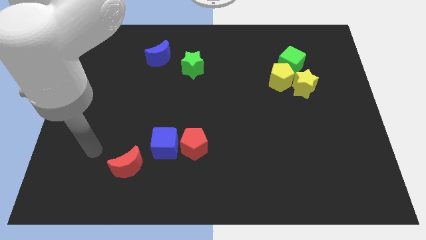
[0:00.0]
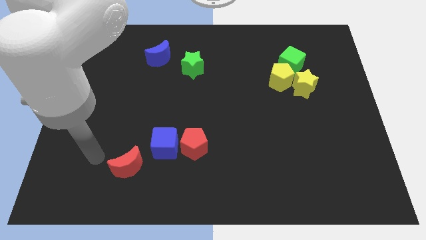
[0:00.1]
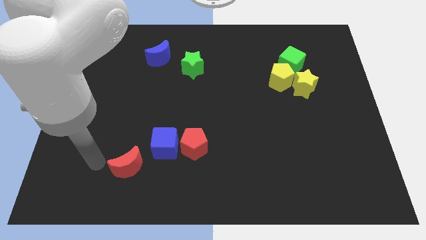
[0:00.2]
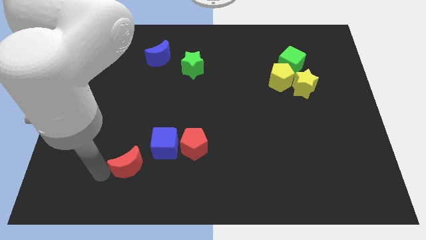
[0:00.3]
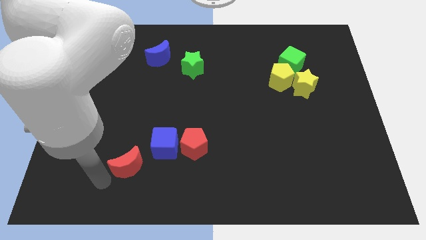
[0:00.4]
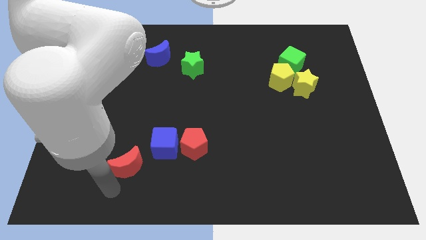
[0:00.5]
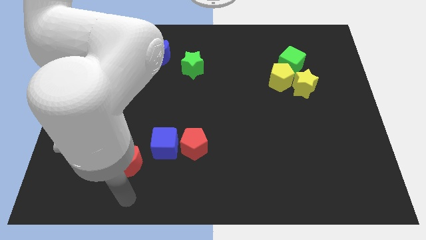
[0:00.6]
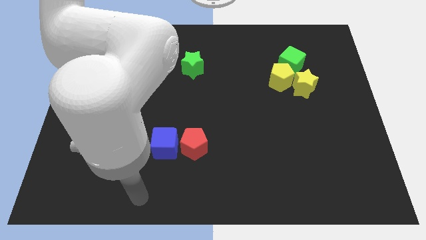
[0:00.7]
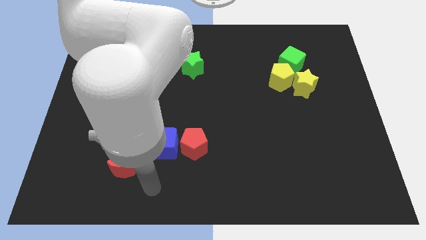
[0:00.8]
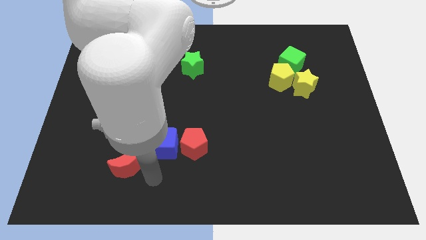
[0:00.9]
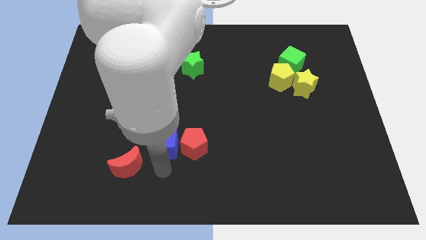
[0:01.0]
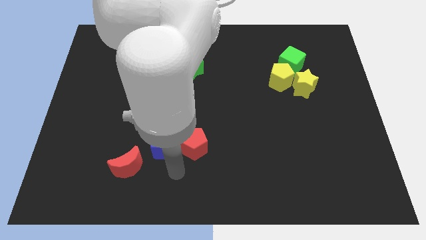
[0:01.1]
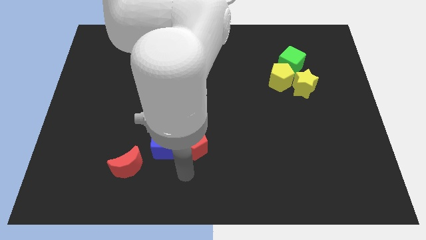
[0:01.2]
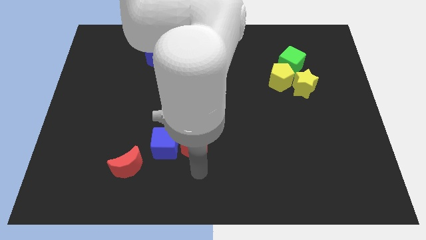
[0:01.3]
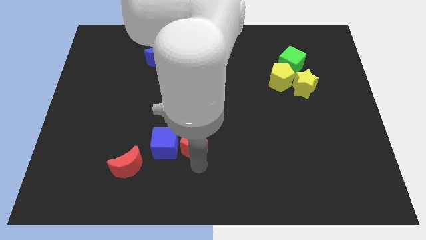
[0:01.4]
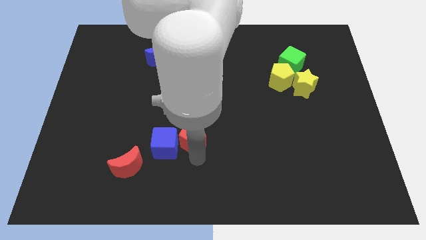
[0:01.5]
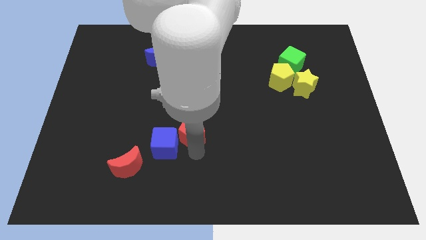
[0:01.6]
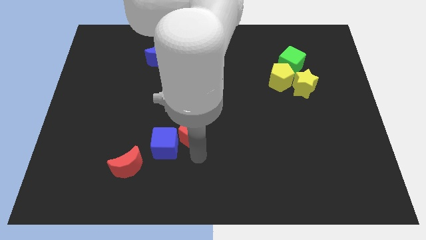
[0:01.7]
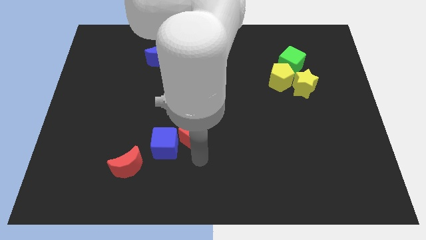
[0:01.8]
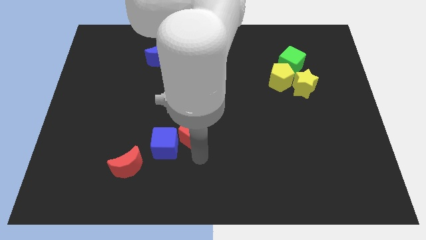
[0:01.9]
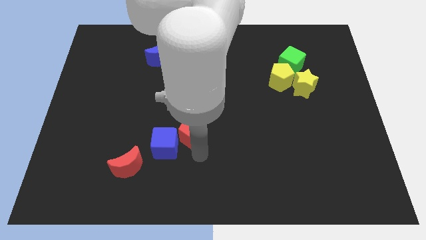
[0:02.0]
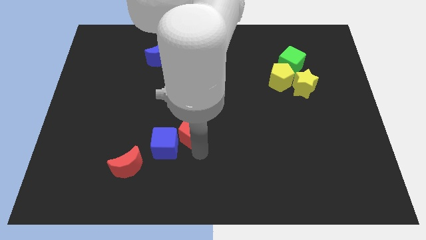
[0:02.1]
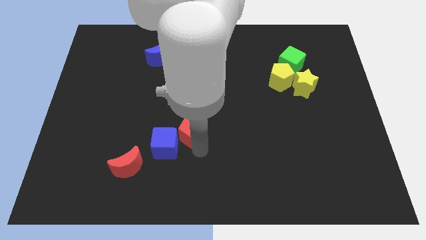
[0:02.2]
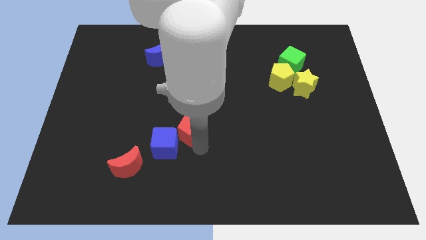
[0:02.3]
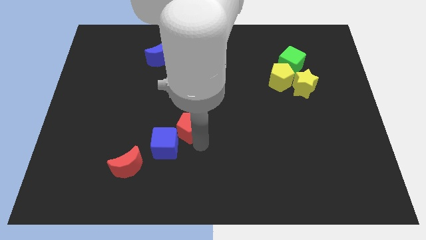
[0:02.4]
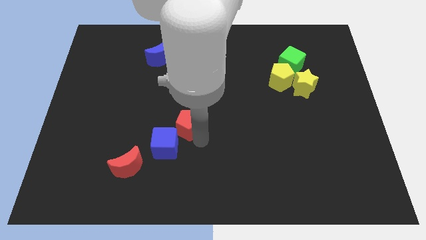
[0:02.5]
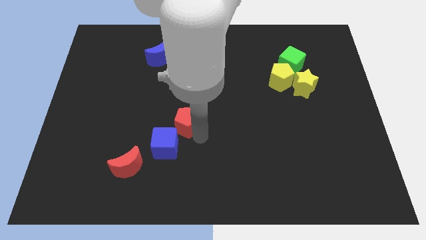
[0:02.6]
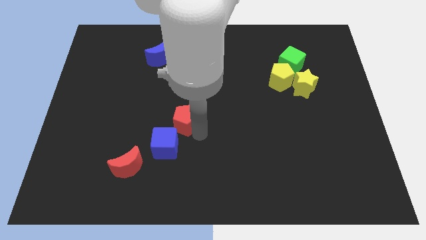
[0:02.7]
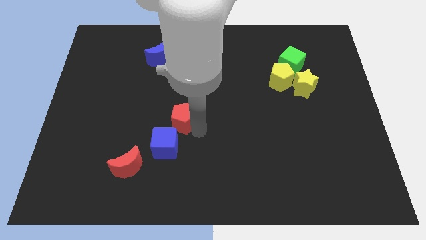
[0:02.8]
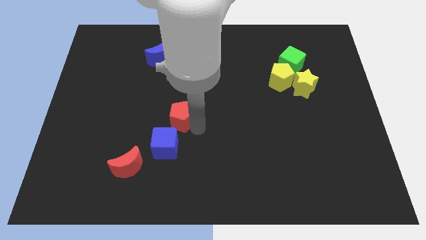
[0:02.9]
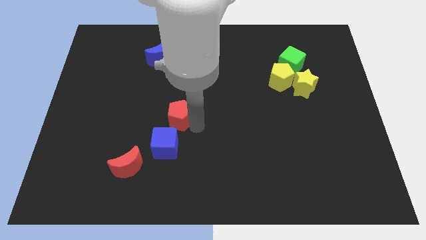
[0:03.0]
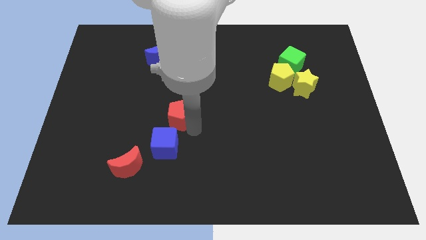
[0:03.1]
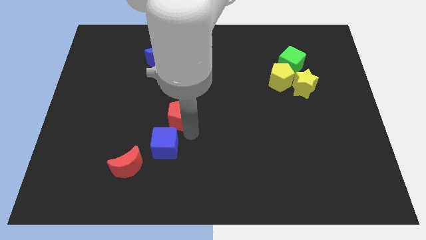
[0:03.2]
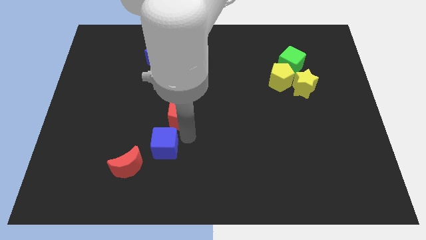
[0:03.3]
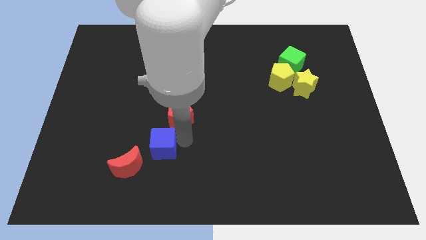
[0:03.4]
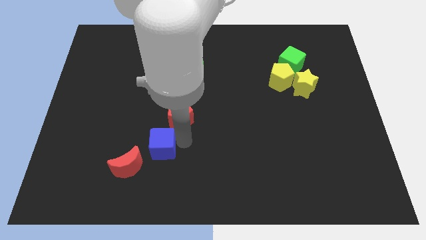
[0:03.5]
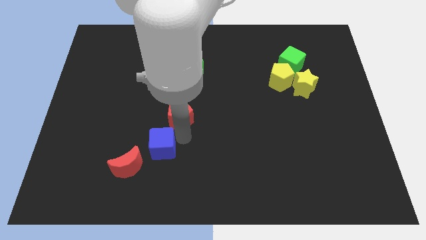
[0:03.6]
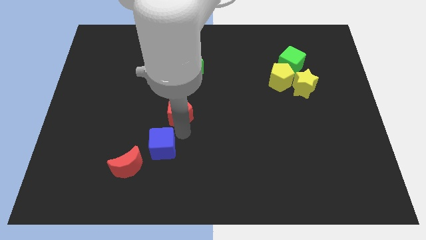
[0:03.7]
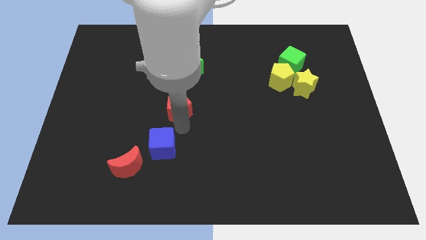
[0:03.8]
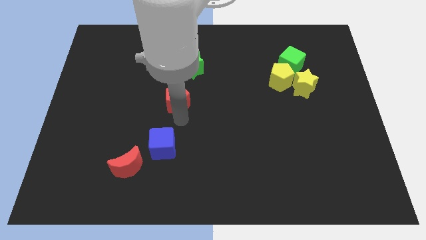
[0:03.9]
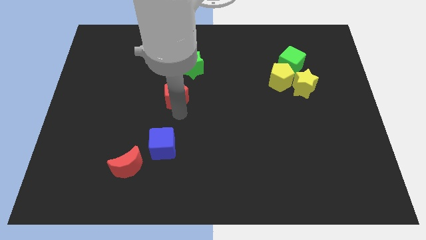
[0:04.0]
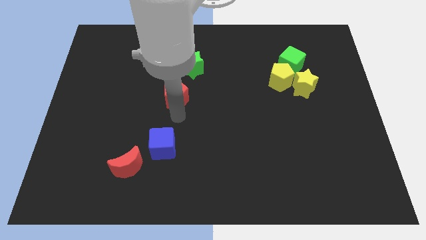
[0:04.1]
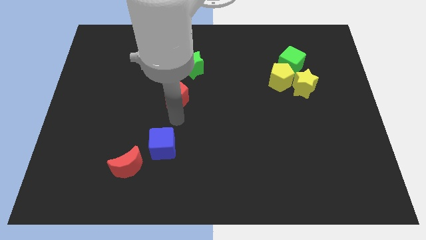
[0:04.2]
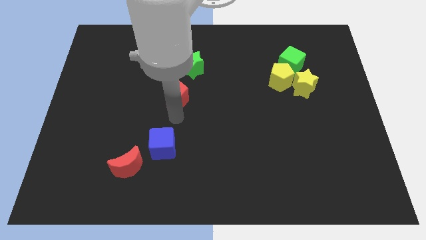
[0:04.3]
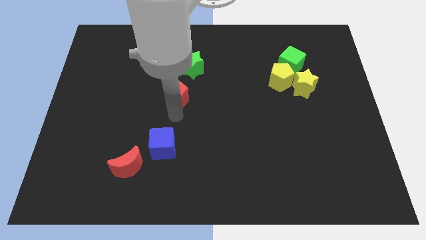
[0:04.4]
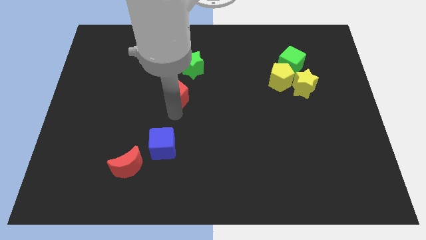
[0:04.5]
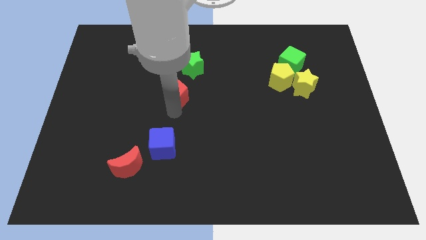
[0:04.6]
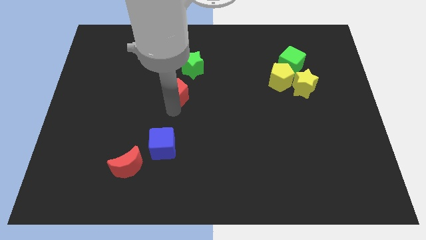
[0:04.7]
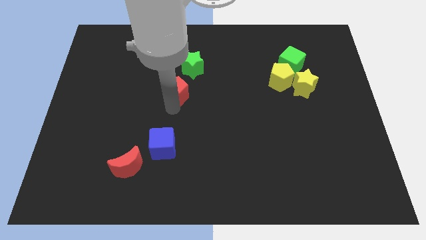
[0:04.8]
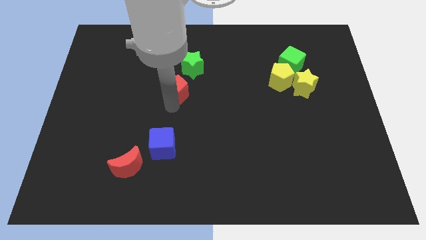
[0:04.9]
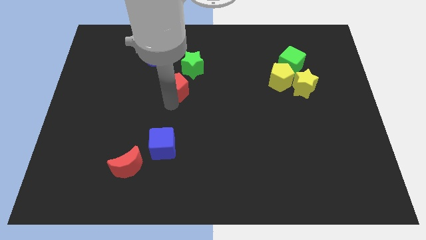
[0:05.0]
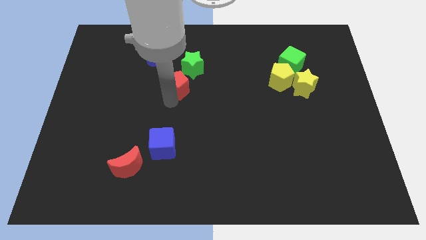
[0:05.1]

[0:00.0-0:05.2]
push the red pentagon diagonally down and to the right of the blue moon

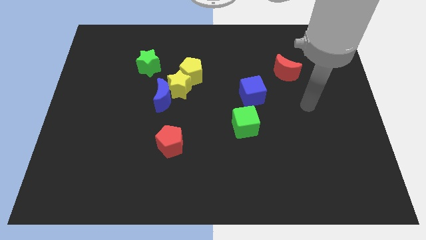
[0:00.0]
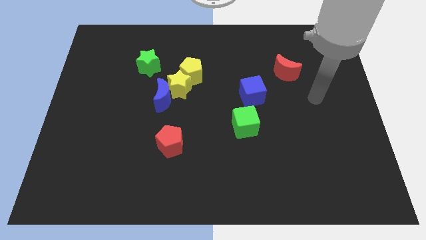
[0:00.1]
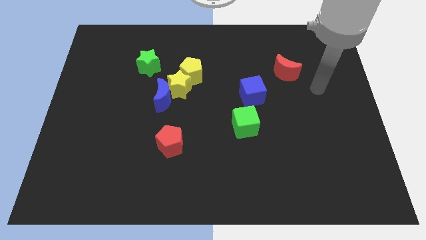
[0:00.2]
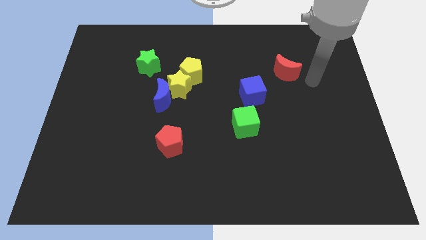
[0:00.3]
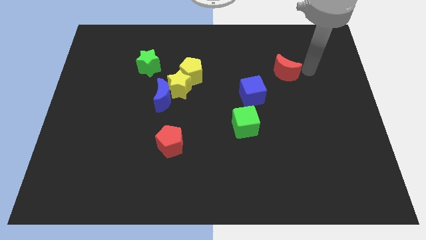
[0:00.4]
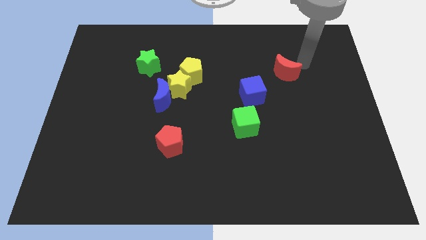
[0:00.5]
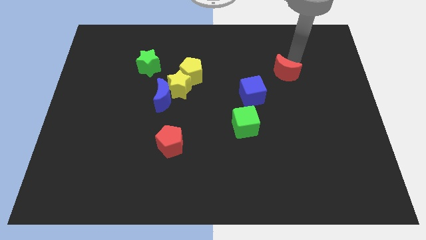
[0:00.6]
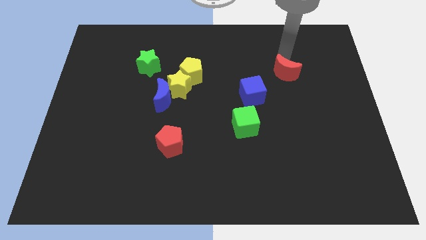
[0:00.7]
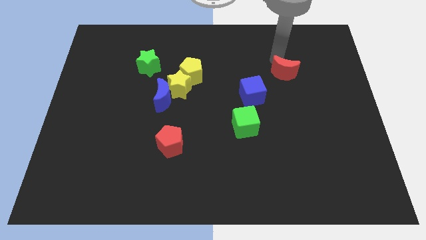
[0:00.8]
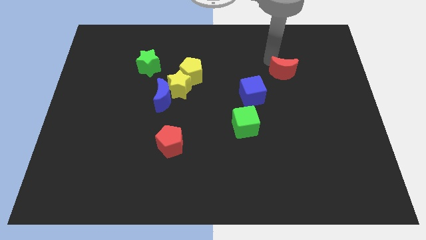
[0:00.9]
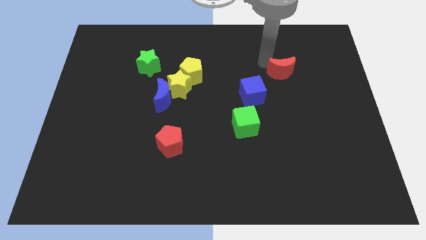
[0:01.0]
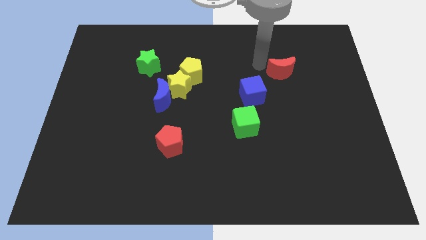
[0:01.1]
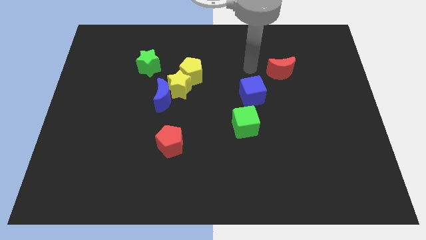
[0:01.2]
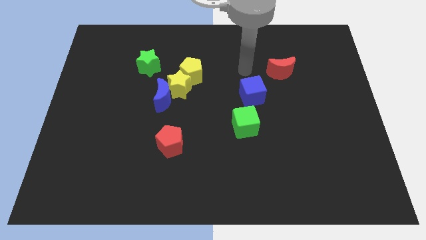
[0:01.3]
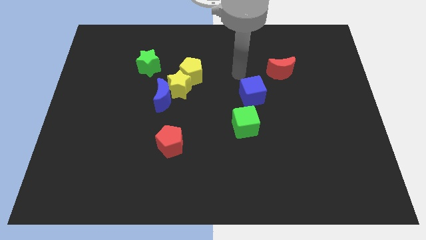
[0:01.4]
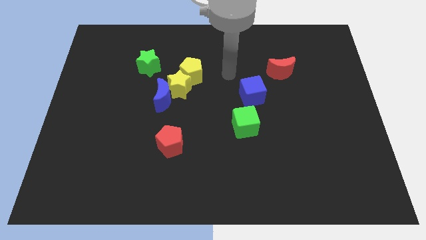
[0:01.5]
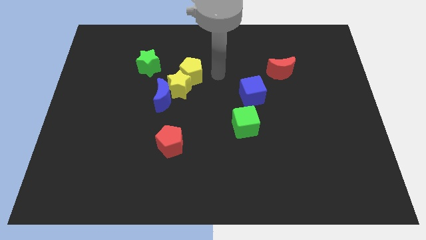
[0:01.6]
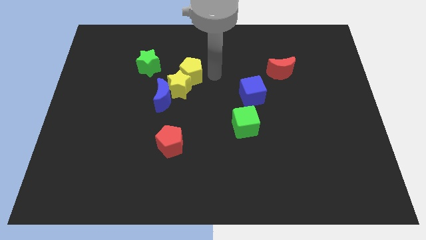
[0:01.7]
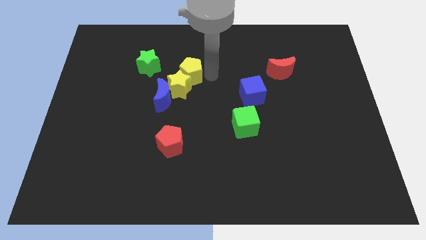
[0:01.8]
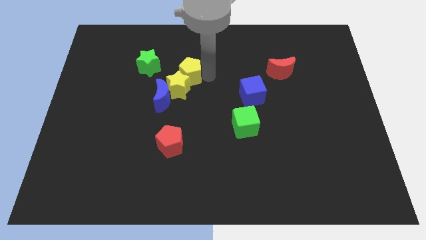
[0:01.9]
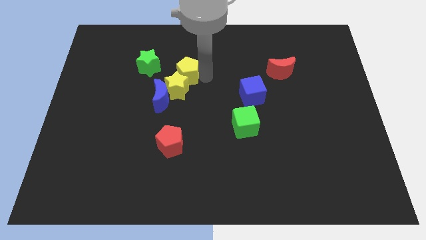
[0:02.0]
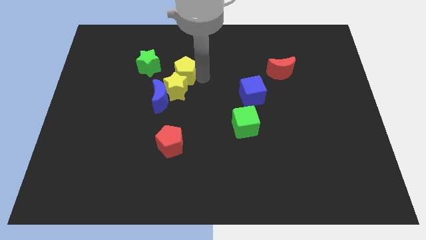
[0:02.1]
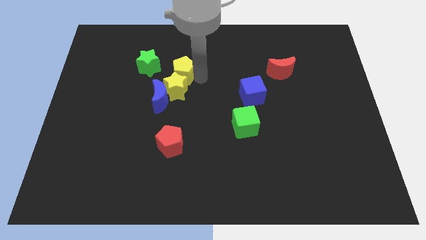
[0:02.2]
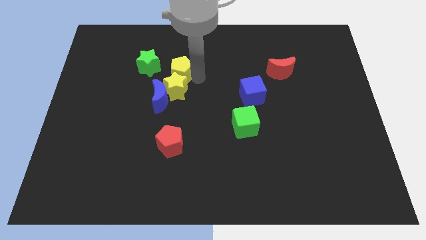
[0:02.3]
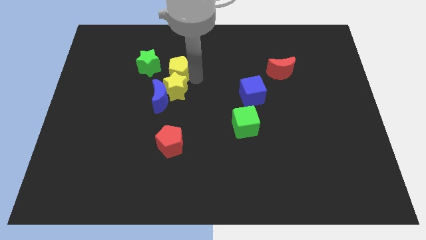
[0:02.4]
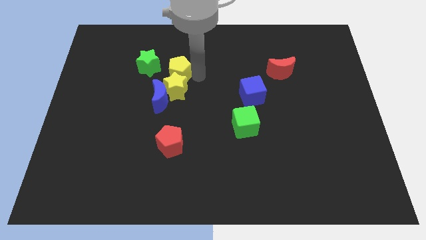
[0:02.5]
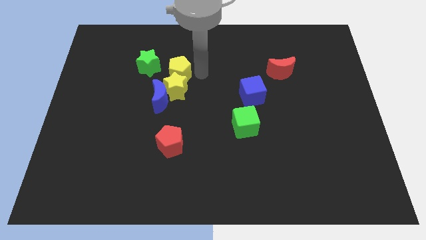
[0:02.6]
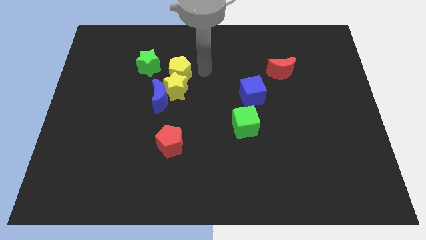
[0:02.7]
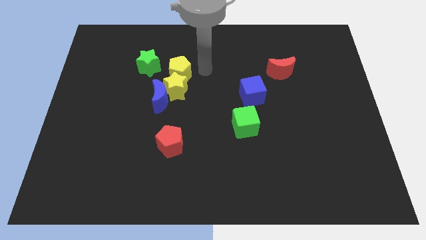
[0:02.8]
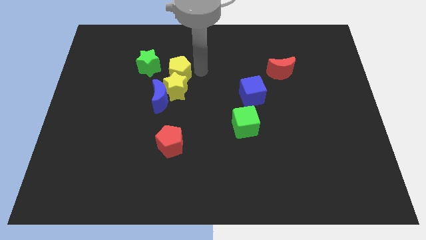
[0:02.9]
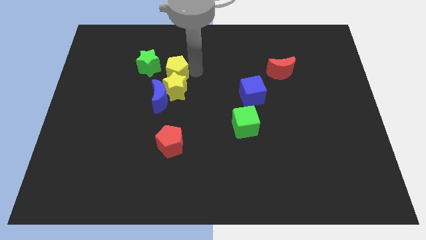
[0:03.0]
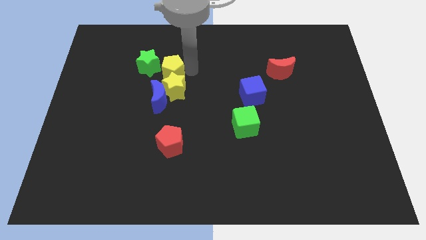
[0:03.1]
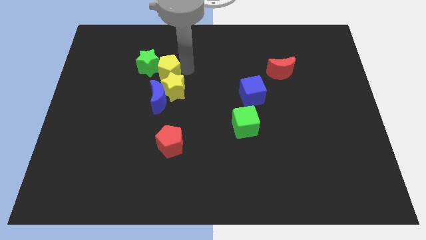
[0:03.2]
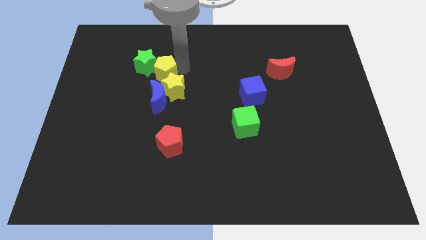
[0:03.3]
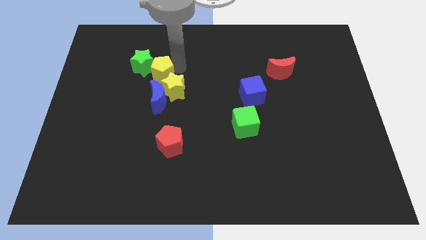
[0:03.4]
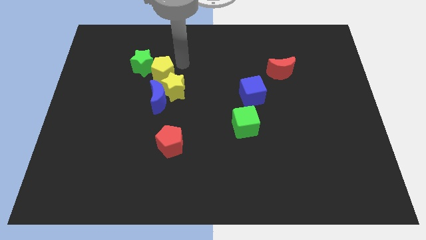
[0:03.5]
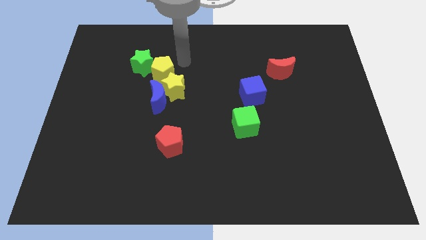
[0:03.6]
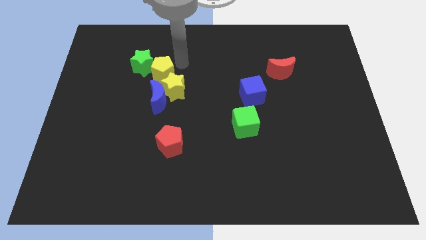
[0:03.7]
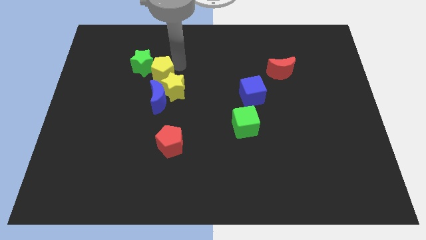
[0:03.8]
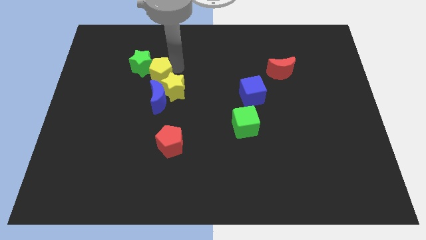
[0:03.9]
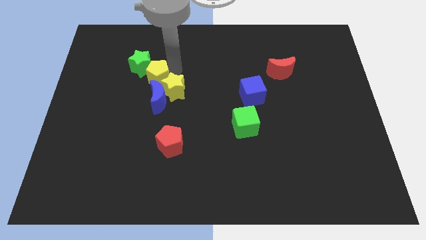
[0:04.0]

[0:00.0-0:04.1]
slide the yellow pentagon to the left of the yellow star
